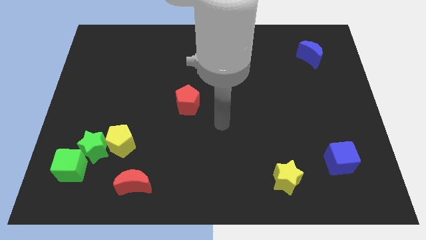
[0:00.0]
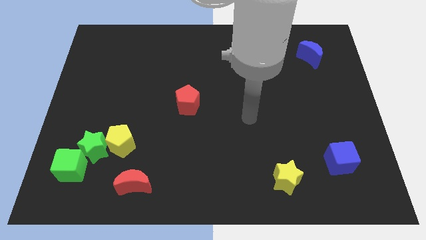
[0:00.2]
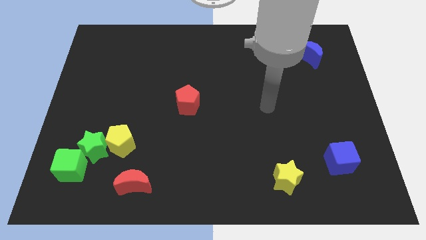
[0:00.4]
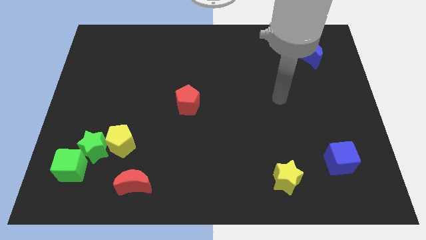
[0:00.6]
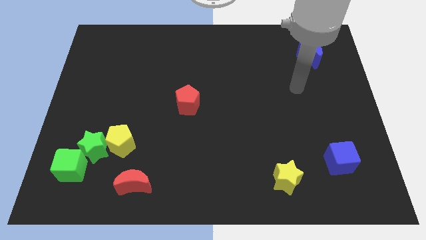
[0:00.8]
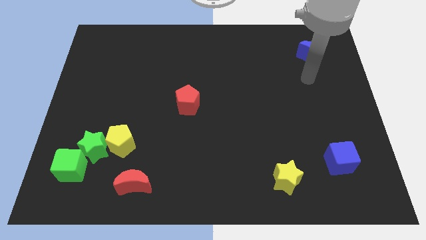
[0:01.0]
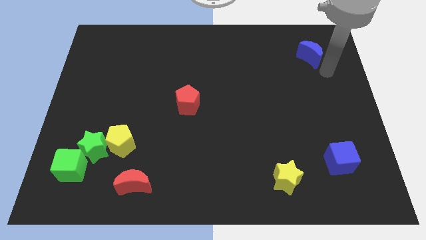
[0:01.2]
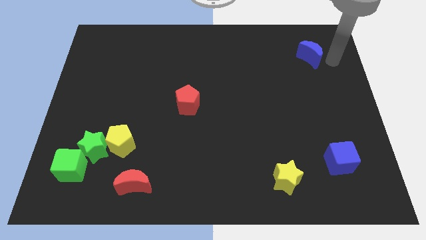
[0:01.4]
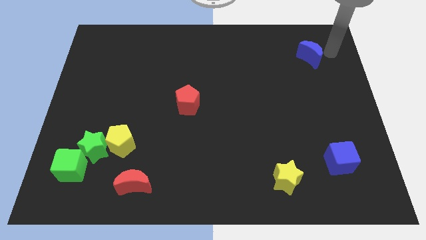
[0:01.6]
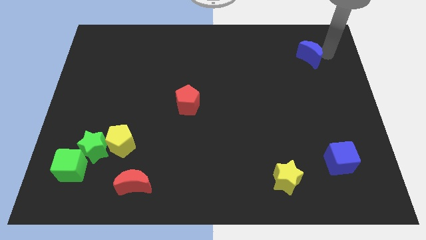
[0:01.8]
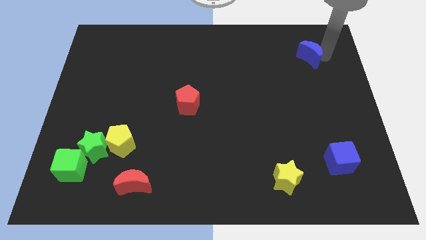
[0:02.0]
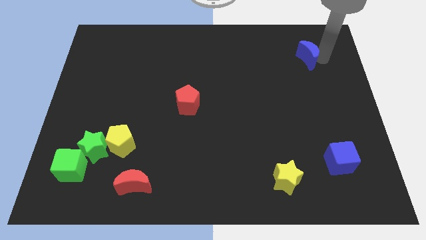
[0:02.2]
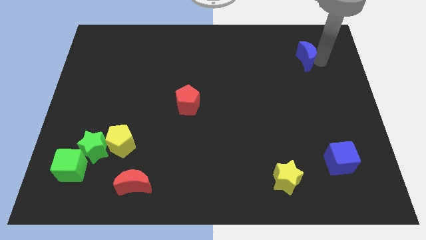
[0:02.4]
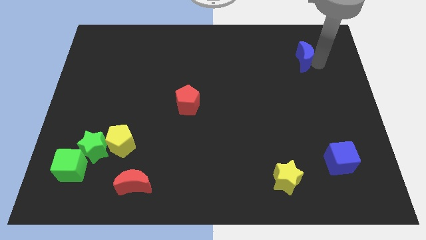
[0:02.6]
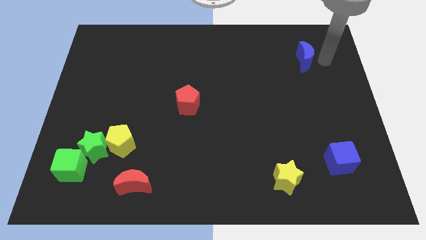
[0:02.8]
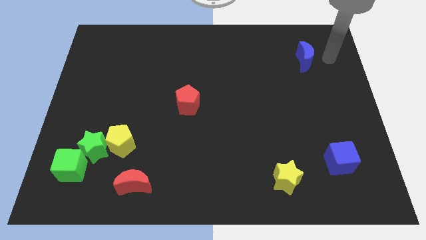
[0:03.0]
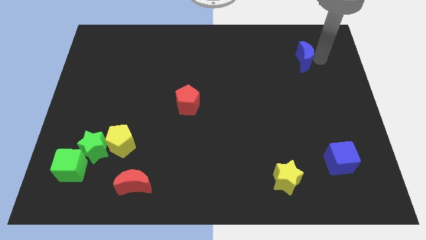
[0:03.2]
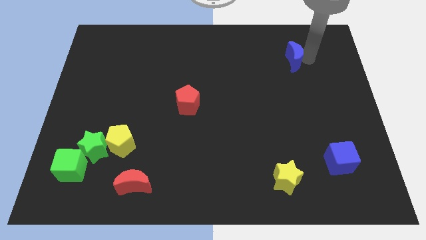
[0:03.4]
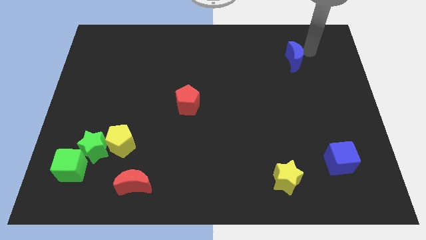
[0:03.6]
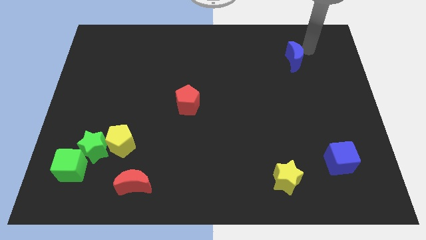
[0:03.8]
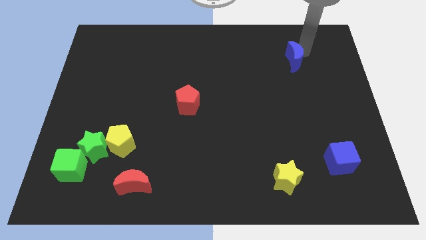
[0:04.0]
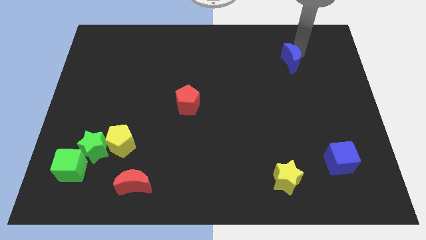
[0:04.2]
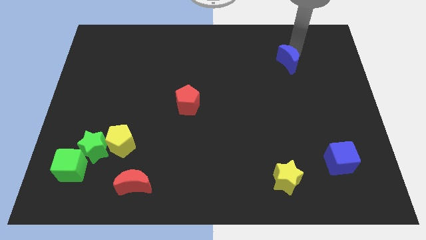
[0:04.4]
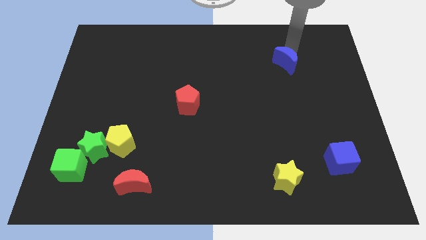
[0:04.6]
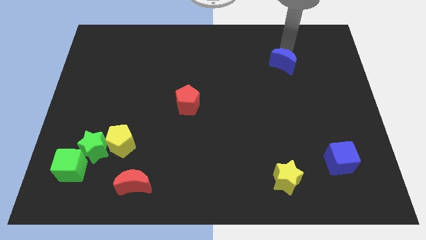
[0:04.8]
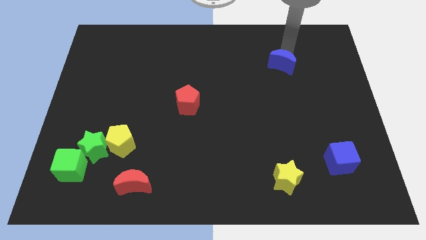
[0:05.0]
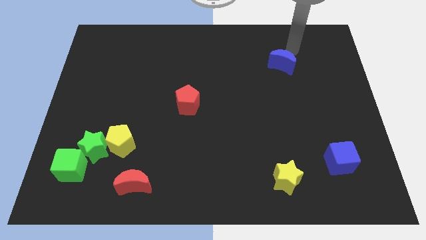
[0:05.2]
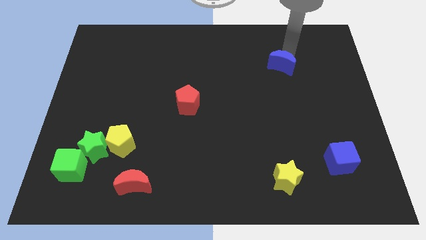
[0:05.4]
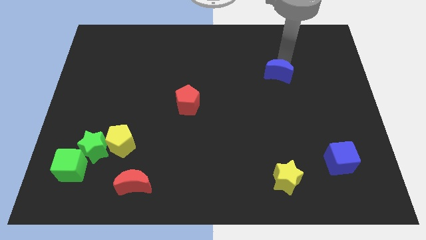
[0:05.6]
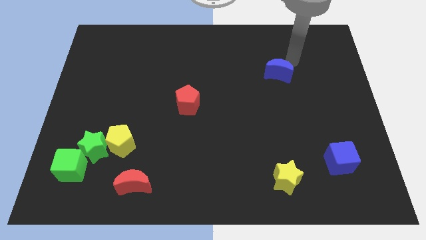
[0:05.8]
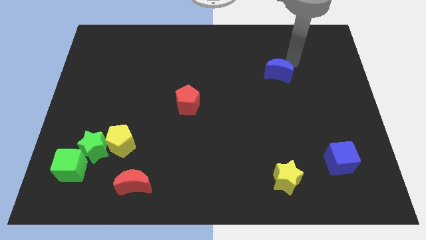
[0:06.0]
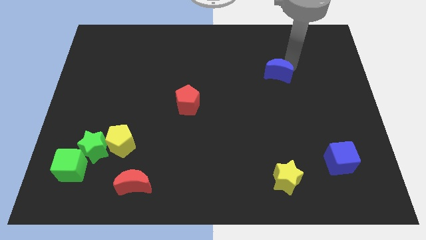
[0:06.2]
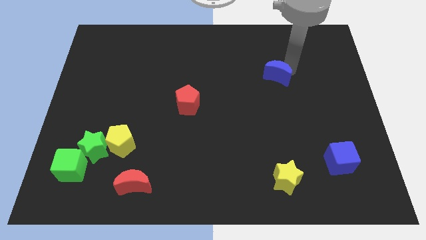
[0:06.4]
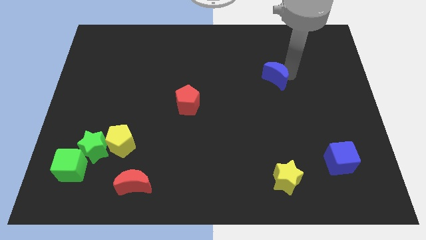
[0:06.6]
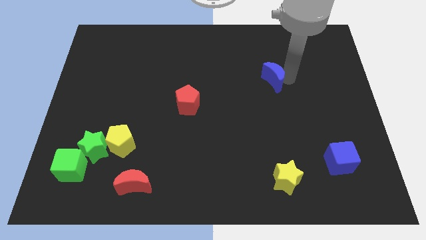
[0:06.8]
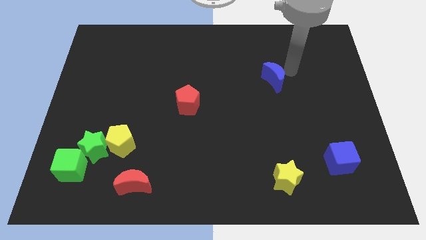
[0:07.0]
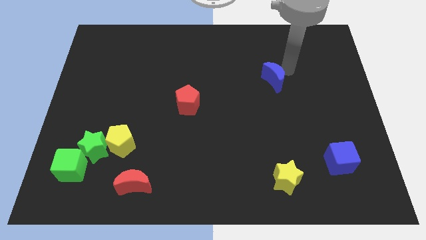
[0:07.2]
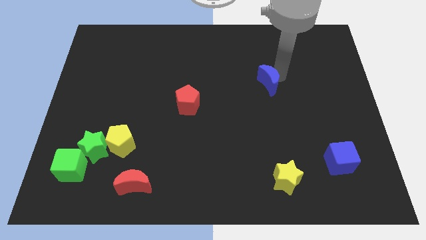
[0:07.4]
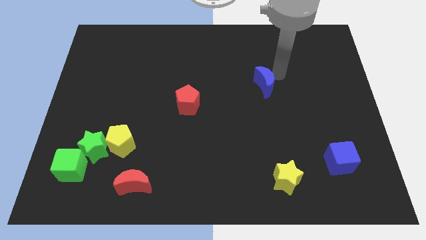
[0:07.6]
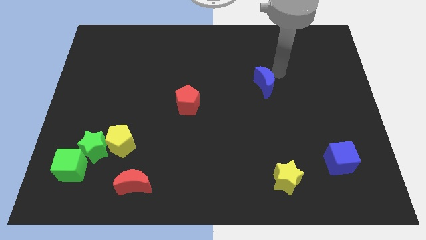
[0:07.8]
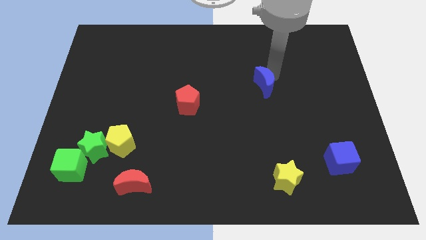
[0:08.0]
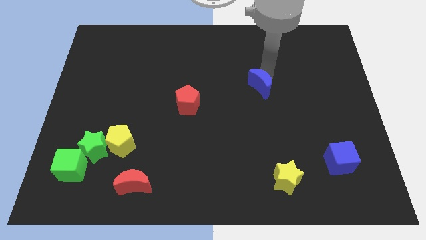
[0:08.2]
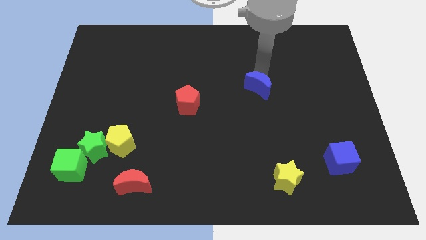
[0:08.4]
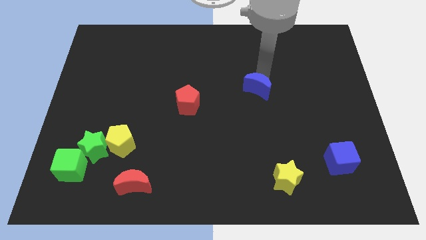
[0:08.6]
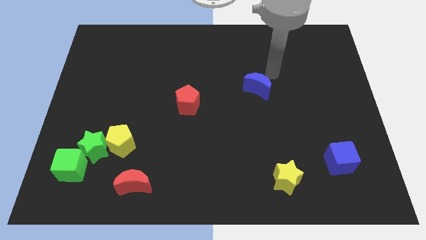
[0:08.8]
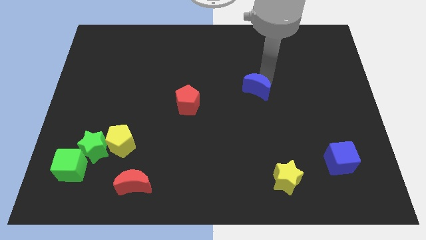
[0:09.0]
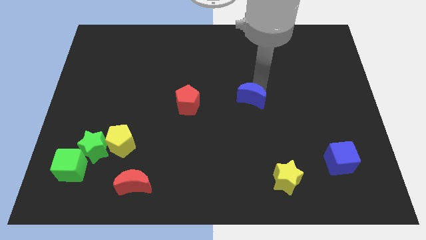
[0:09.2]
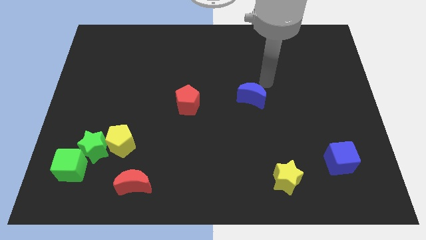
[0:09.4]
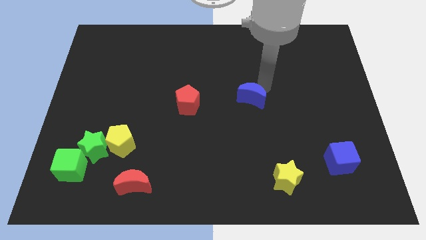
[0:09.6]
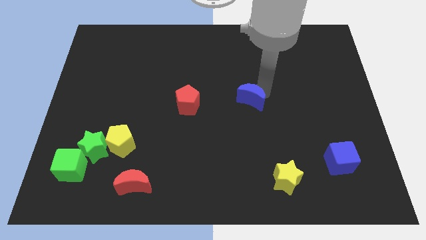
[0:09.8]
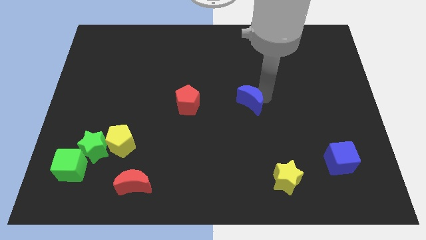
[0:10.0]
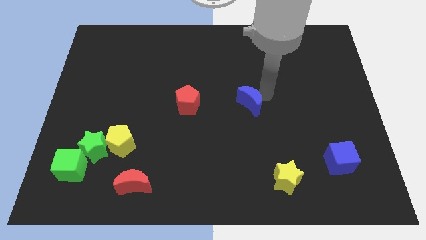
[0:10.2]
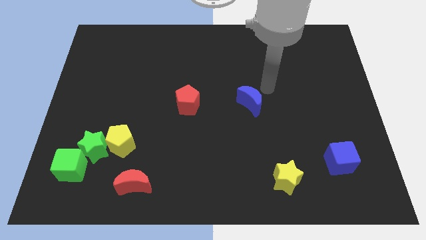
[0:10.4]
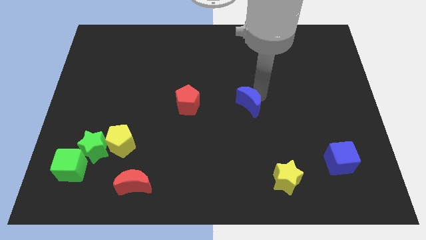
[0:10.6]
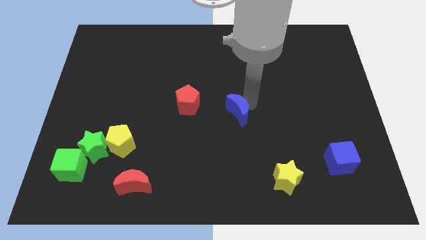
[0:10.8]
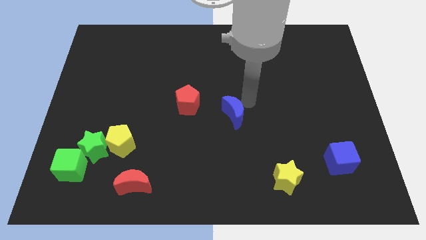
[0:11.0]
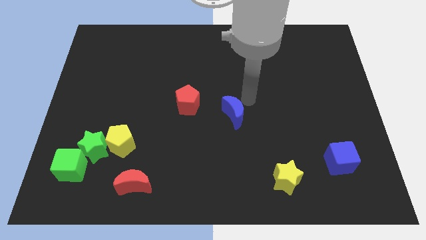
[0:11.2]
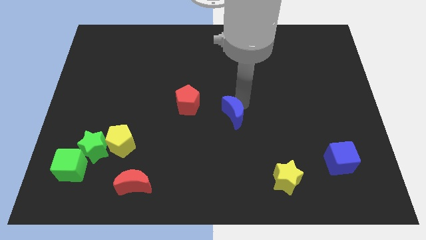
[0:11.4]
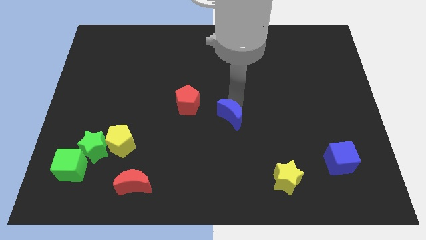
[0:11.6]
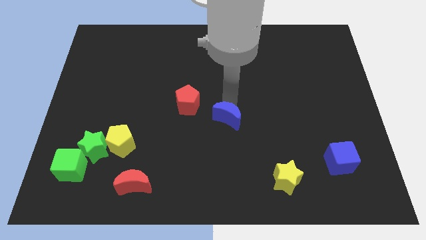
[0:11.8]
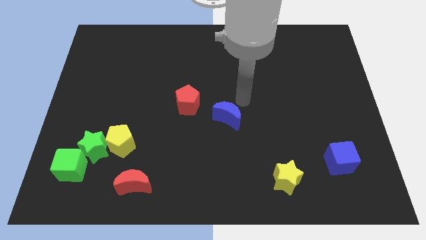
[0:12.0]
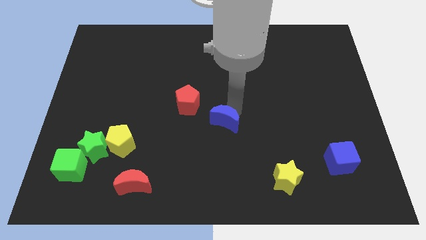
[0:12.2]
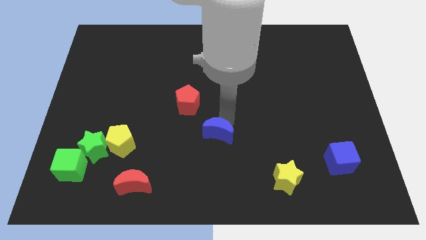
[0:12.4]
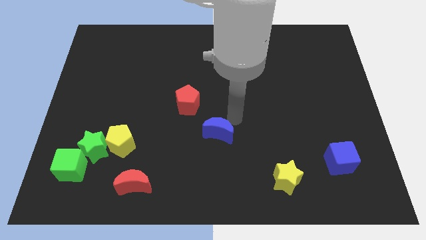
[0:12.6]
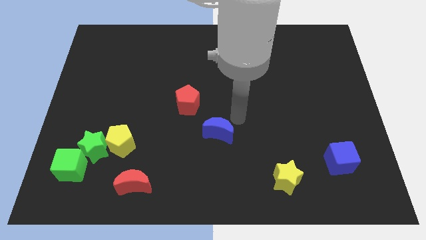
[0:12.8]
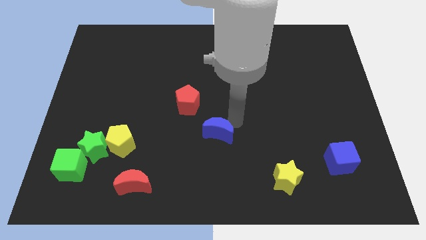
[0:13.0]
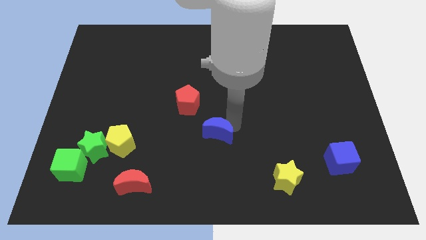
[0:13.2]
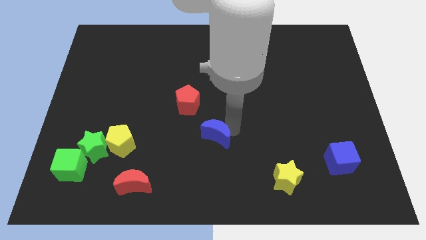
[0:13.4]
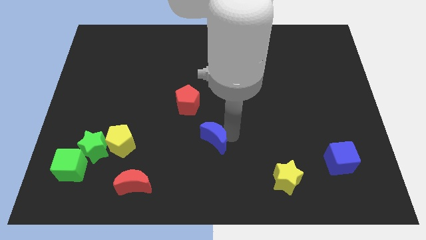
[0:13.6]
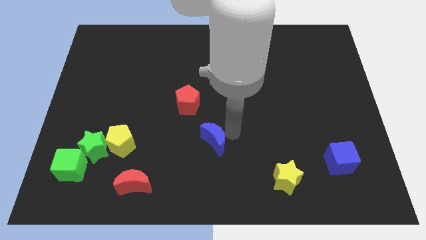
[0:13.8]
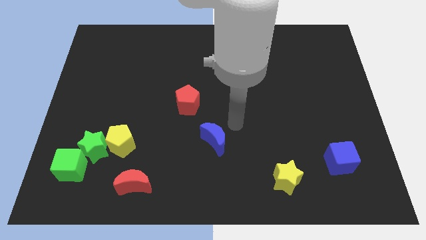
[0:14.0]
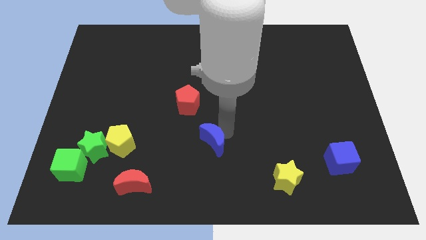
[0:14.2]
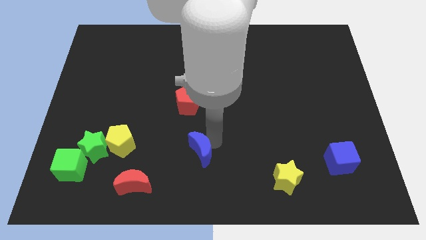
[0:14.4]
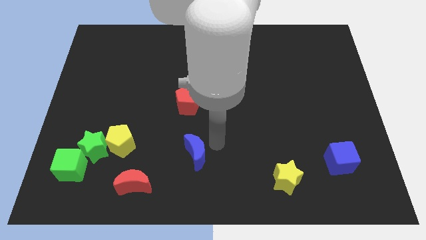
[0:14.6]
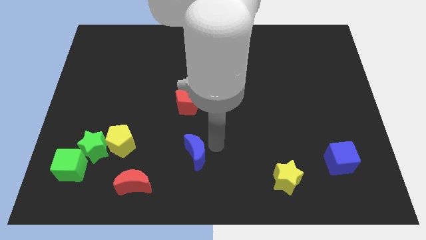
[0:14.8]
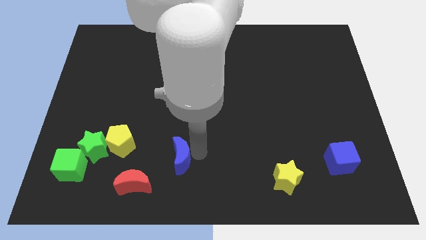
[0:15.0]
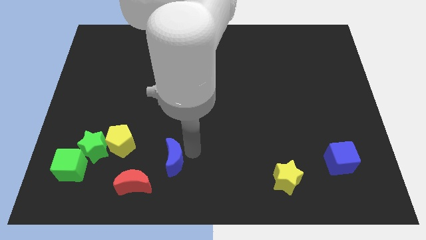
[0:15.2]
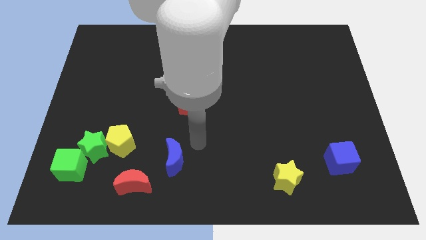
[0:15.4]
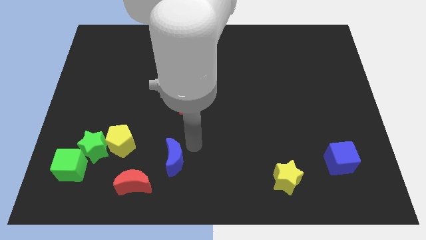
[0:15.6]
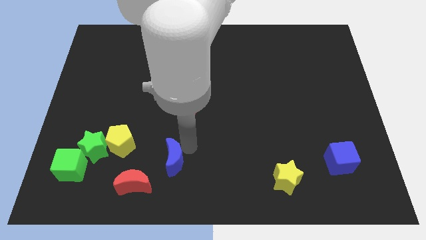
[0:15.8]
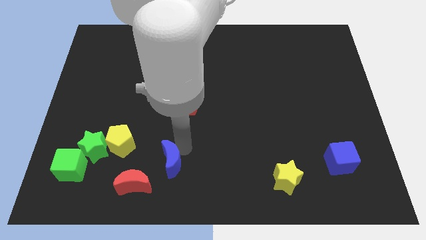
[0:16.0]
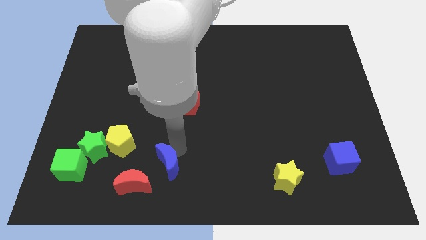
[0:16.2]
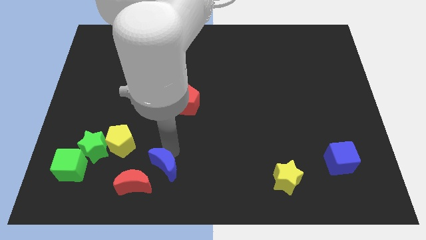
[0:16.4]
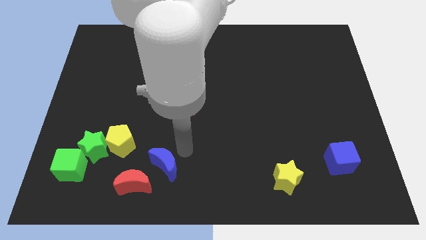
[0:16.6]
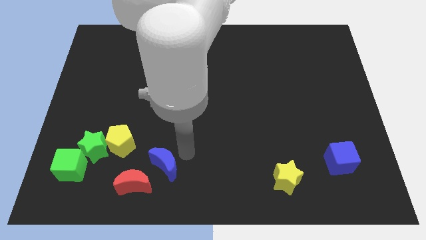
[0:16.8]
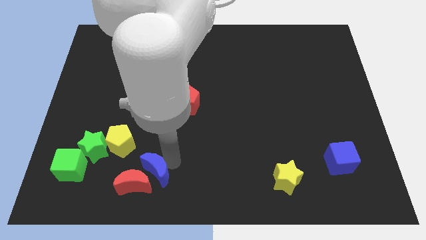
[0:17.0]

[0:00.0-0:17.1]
push the blue moon to the red moon
